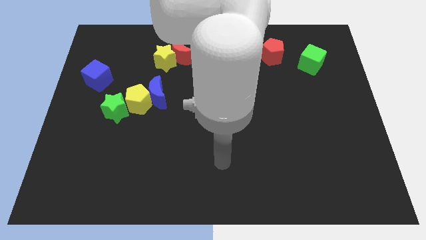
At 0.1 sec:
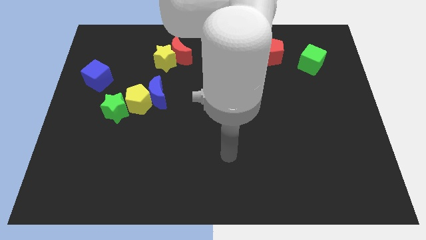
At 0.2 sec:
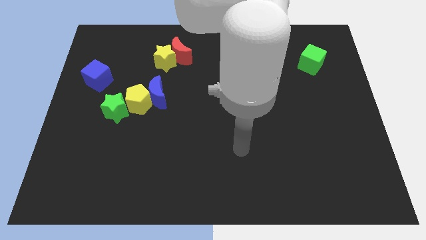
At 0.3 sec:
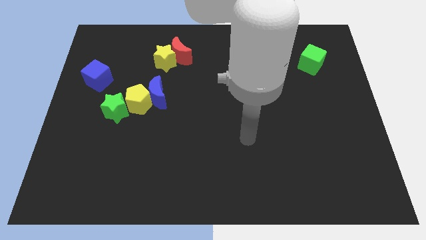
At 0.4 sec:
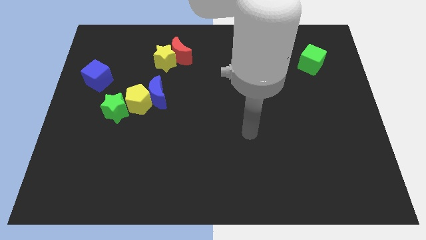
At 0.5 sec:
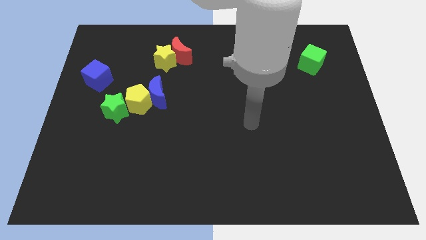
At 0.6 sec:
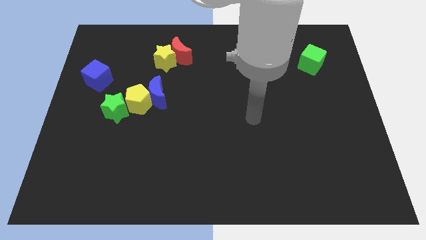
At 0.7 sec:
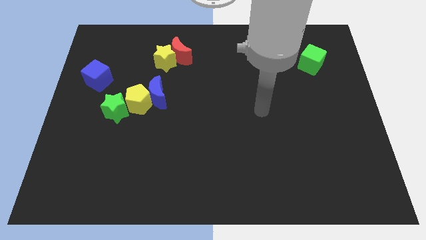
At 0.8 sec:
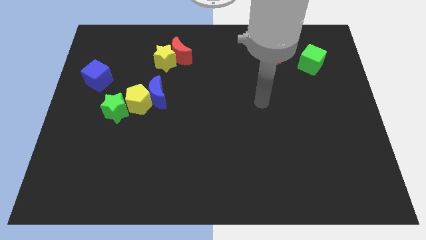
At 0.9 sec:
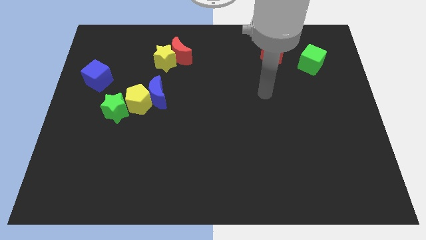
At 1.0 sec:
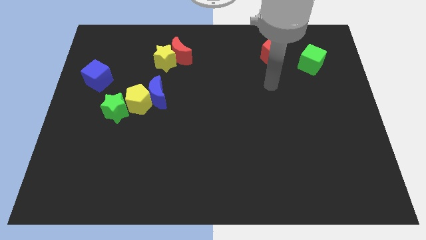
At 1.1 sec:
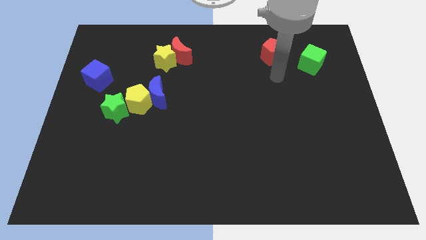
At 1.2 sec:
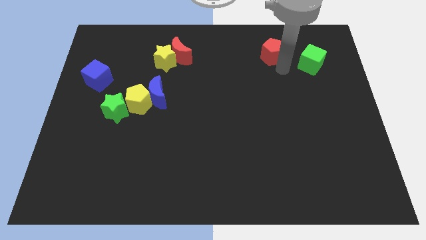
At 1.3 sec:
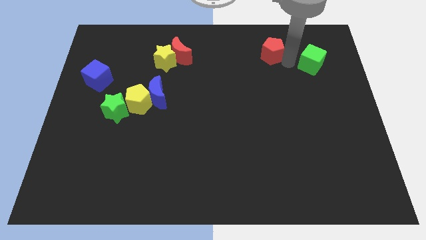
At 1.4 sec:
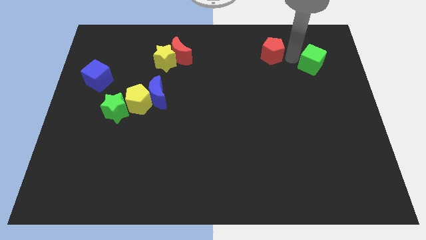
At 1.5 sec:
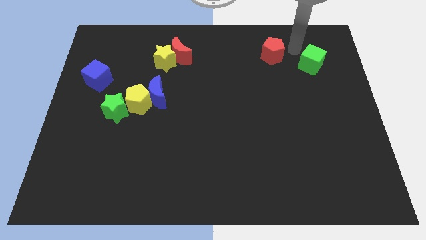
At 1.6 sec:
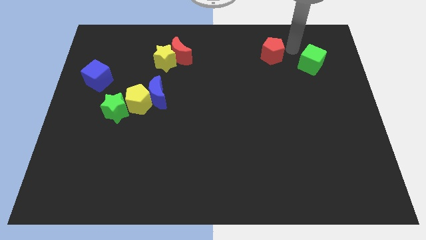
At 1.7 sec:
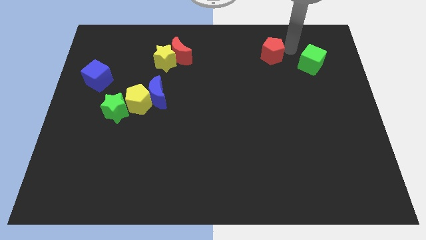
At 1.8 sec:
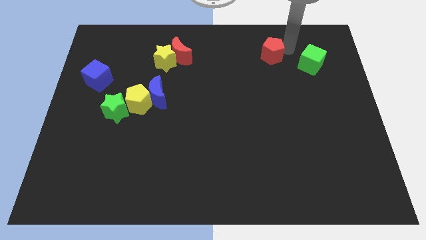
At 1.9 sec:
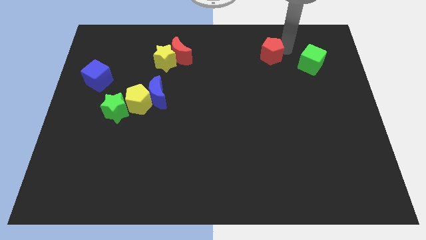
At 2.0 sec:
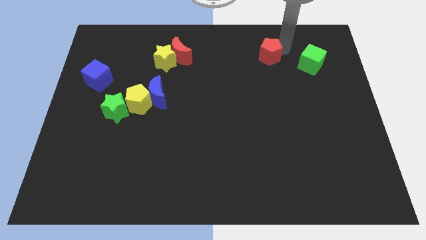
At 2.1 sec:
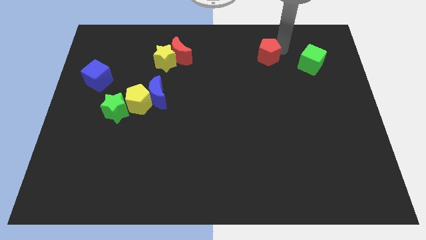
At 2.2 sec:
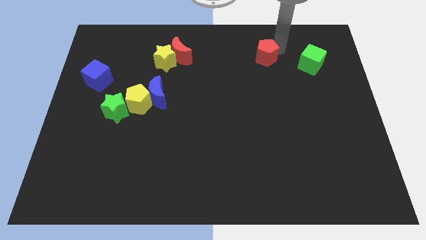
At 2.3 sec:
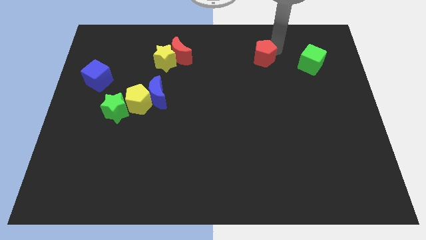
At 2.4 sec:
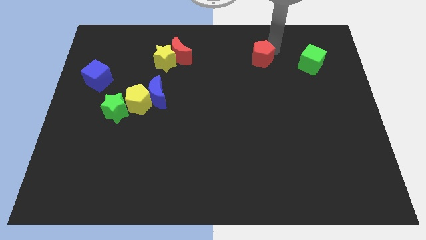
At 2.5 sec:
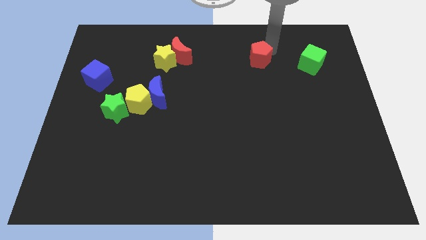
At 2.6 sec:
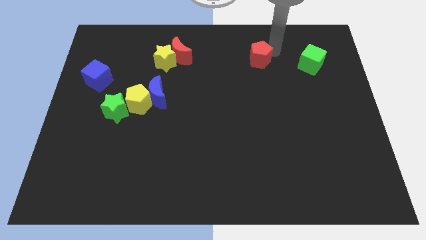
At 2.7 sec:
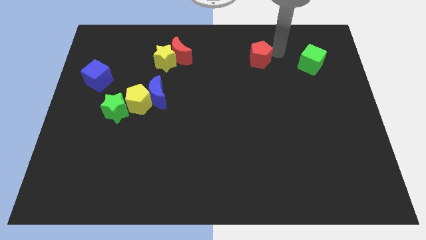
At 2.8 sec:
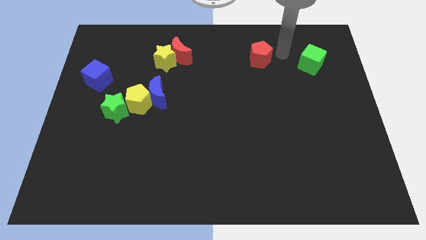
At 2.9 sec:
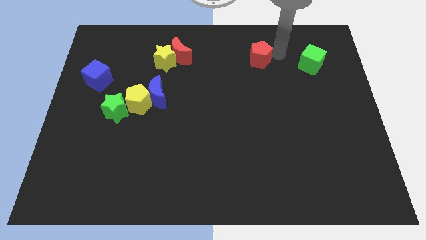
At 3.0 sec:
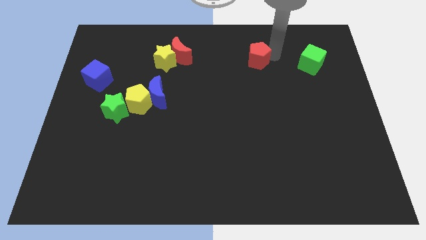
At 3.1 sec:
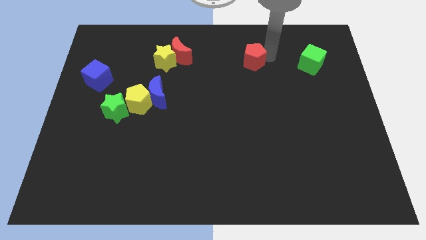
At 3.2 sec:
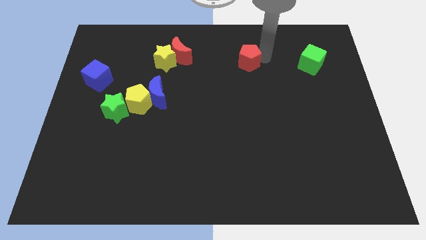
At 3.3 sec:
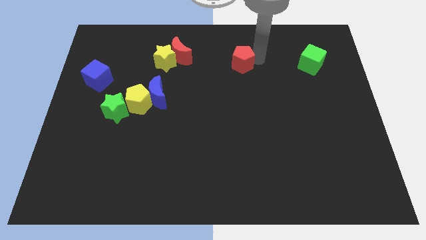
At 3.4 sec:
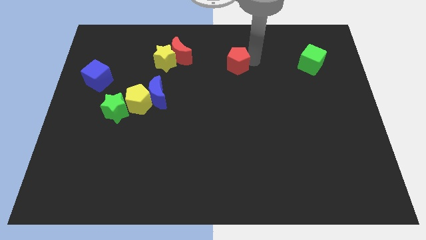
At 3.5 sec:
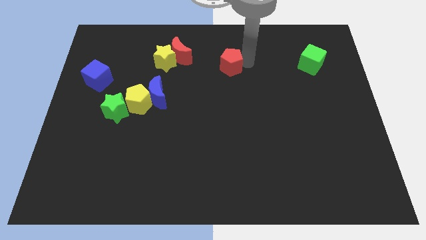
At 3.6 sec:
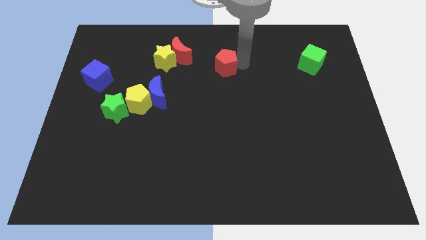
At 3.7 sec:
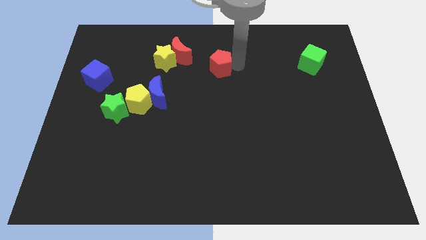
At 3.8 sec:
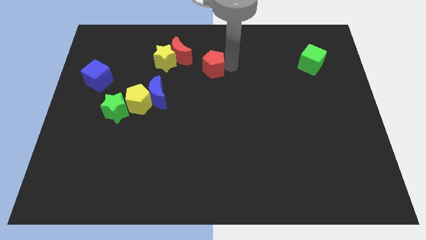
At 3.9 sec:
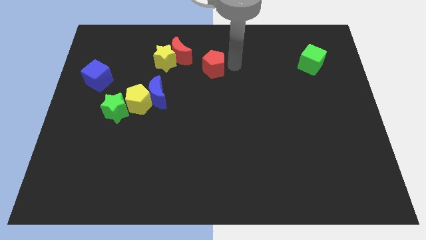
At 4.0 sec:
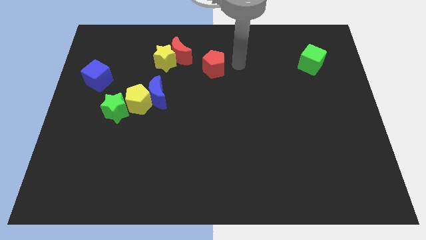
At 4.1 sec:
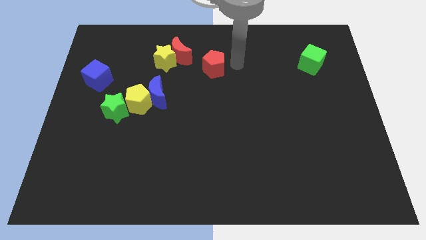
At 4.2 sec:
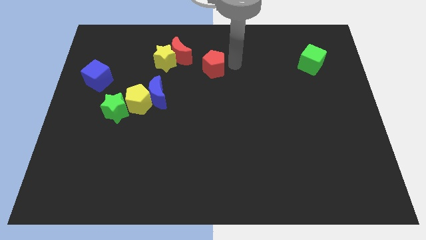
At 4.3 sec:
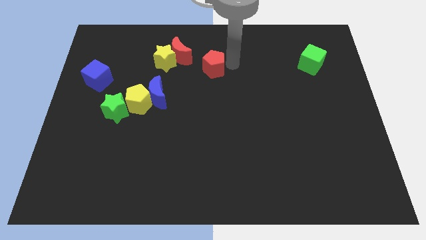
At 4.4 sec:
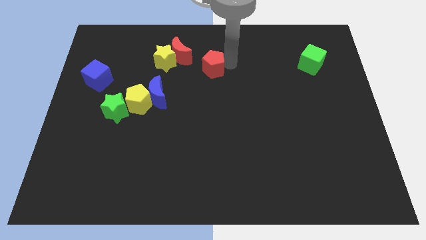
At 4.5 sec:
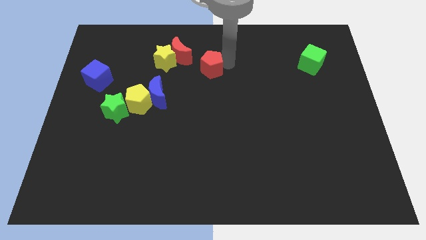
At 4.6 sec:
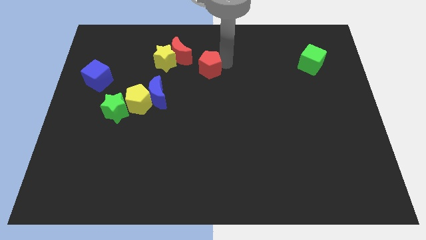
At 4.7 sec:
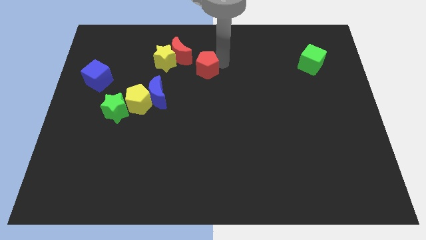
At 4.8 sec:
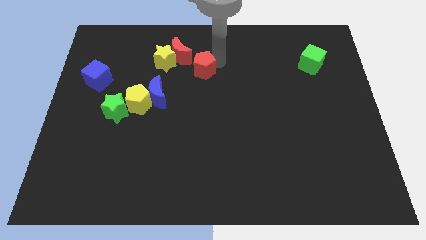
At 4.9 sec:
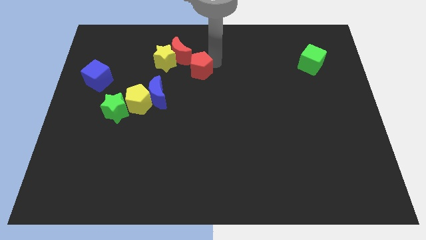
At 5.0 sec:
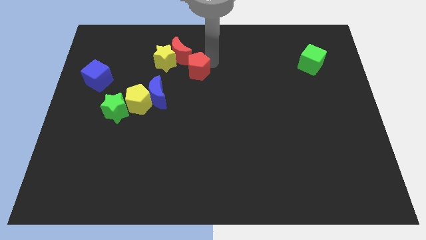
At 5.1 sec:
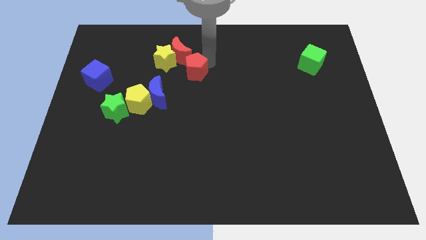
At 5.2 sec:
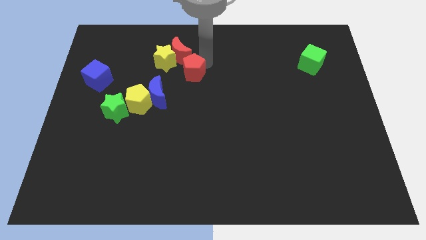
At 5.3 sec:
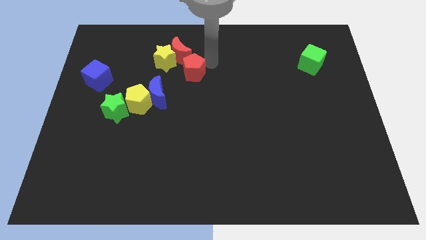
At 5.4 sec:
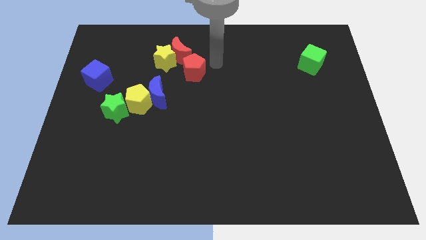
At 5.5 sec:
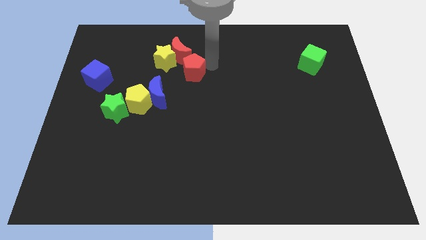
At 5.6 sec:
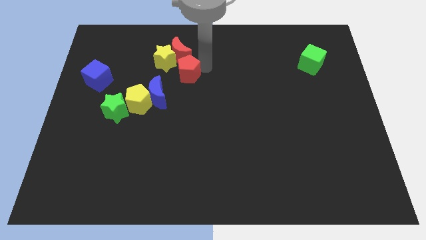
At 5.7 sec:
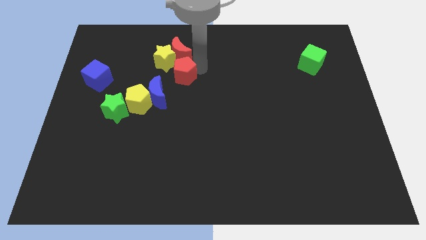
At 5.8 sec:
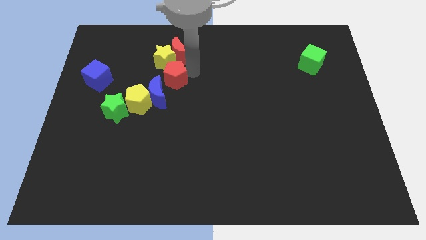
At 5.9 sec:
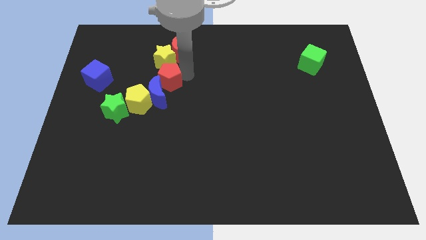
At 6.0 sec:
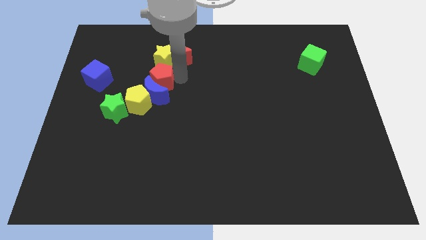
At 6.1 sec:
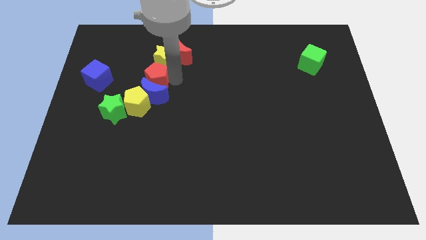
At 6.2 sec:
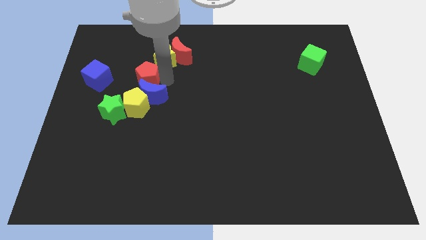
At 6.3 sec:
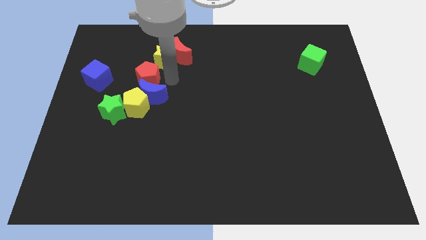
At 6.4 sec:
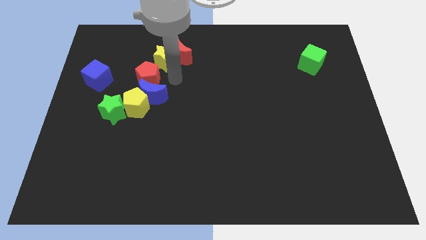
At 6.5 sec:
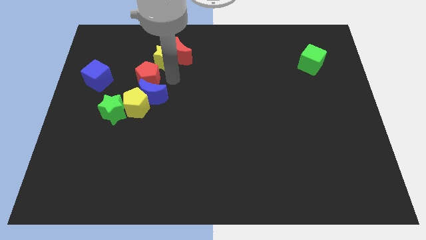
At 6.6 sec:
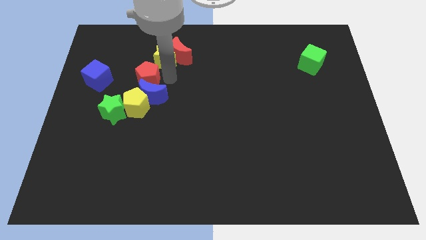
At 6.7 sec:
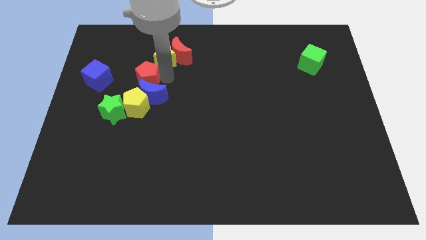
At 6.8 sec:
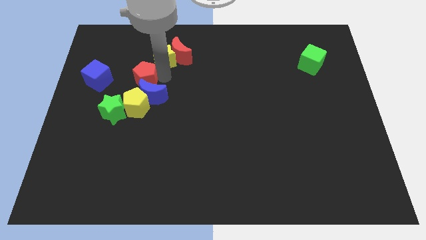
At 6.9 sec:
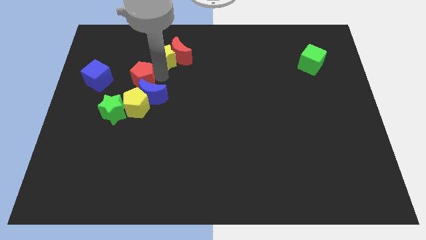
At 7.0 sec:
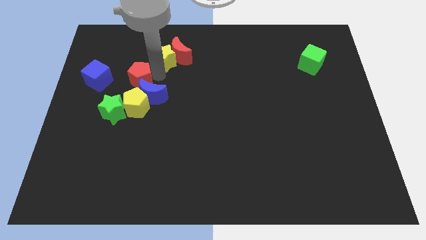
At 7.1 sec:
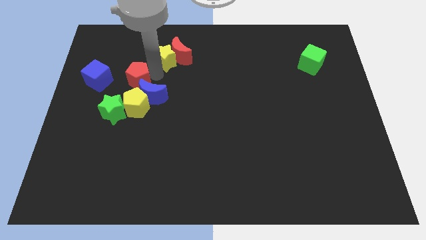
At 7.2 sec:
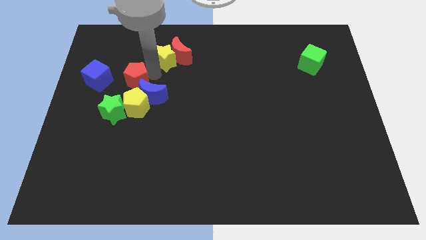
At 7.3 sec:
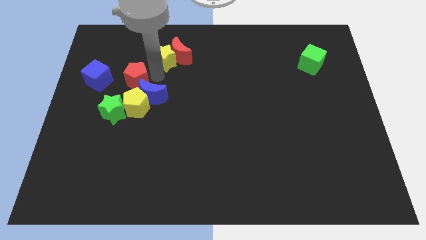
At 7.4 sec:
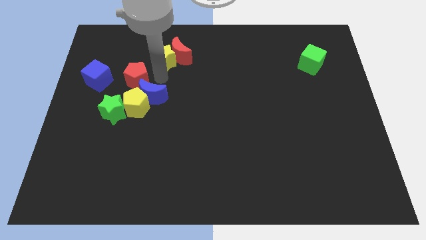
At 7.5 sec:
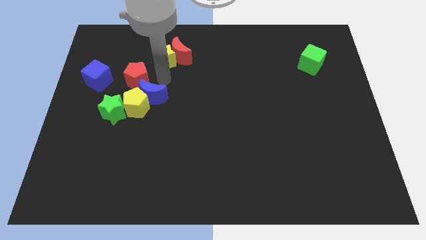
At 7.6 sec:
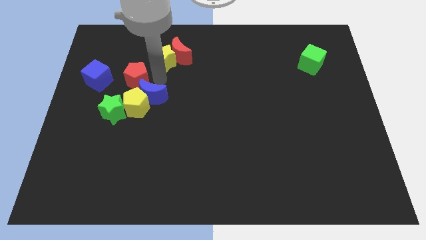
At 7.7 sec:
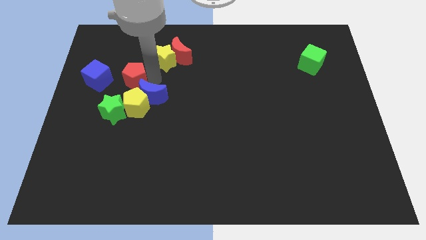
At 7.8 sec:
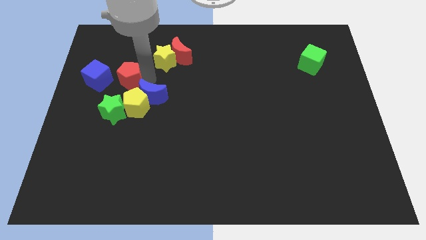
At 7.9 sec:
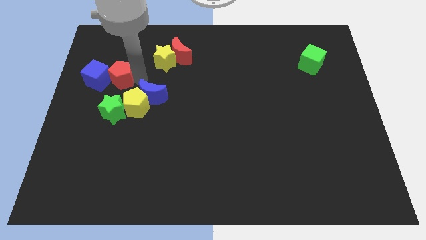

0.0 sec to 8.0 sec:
move the red pentagon close to the blue cube
